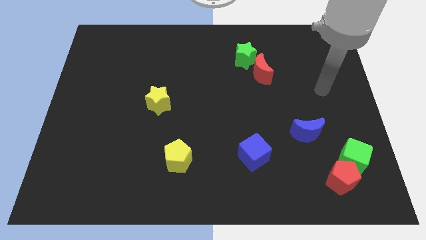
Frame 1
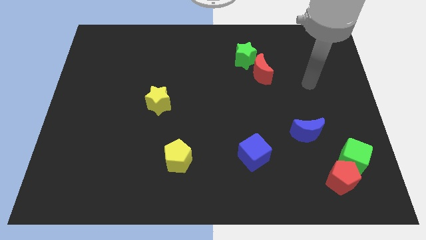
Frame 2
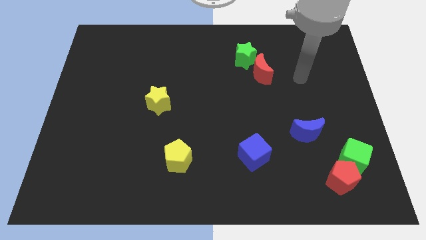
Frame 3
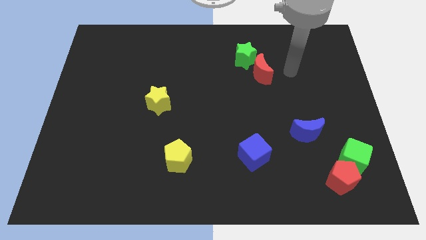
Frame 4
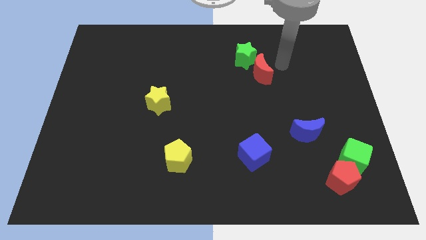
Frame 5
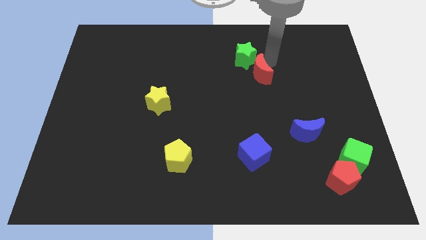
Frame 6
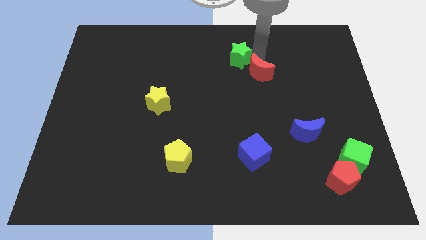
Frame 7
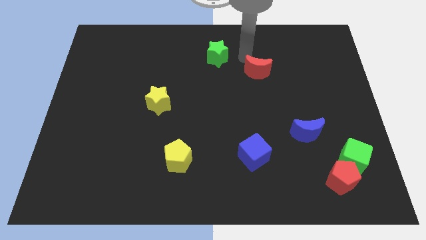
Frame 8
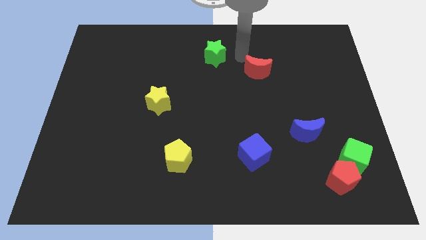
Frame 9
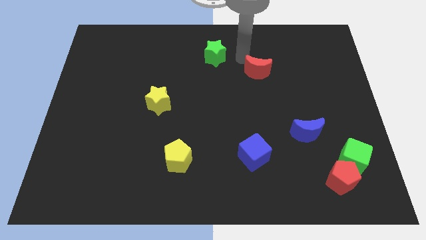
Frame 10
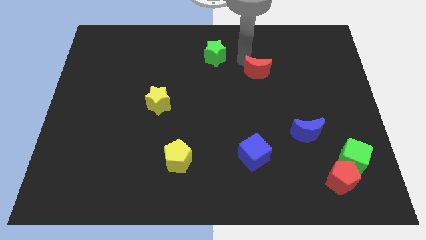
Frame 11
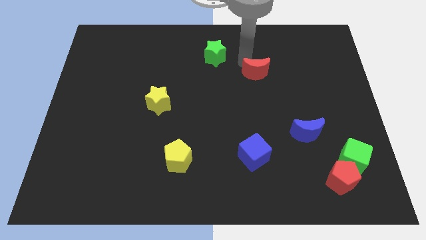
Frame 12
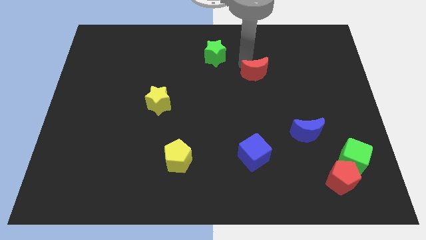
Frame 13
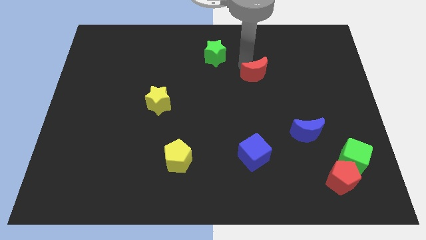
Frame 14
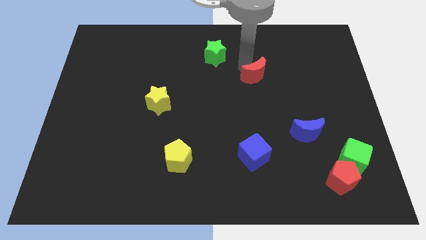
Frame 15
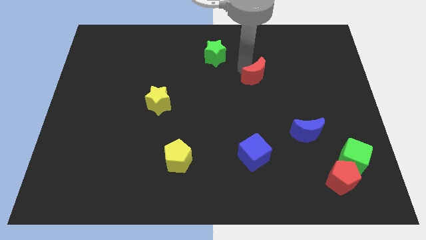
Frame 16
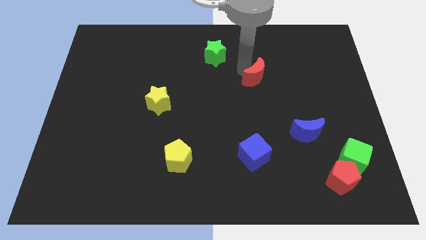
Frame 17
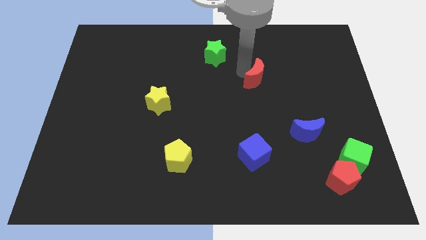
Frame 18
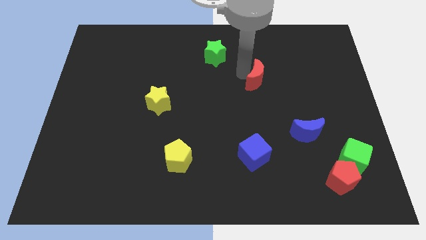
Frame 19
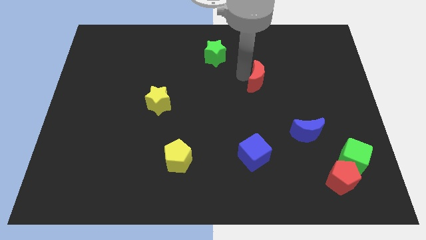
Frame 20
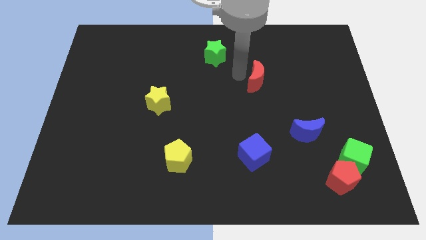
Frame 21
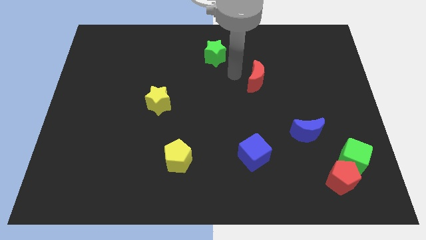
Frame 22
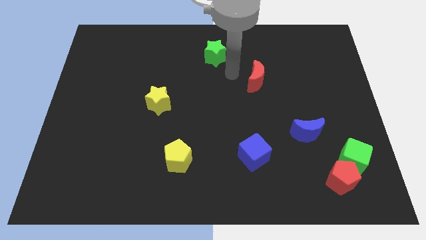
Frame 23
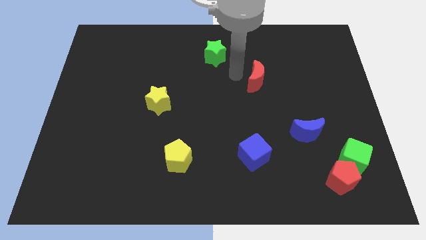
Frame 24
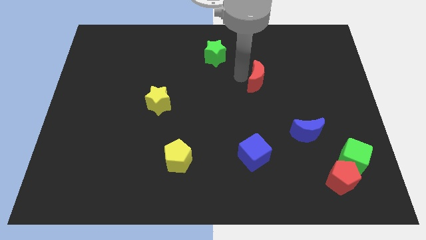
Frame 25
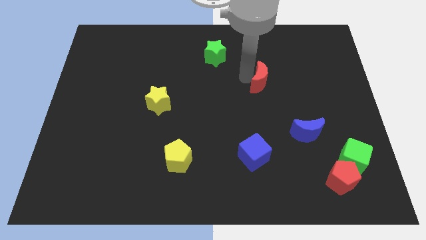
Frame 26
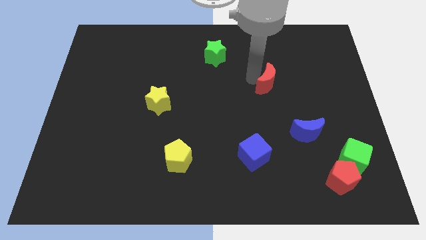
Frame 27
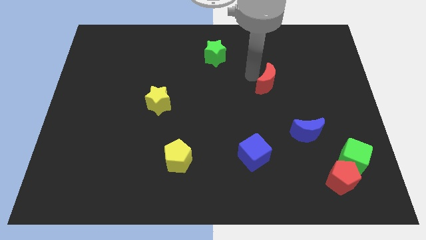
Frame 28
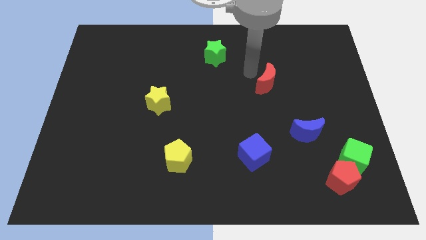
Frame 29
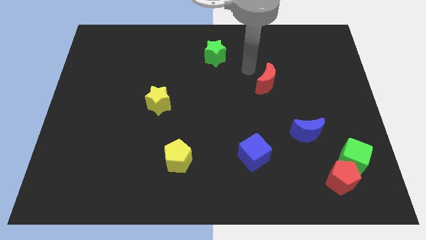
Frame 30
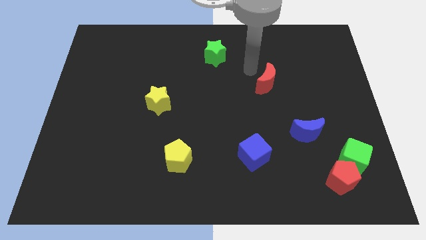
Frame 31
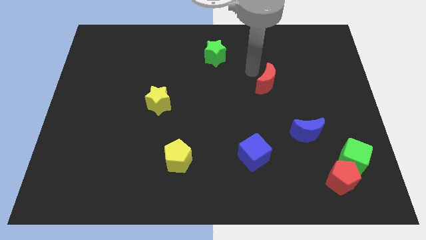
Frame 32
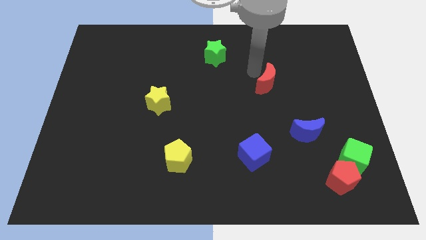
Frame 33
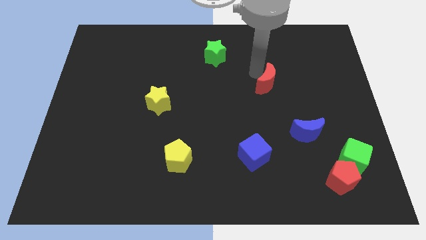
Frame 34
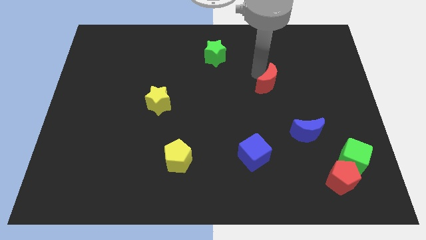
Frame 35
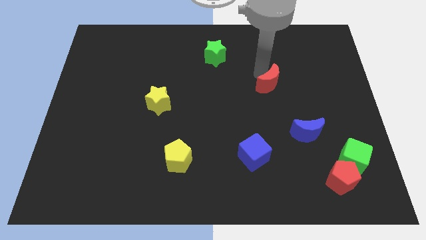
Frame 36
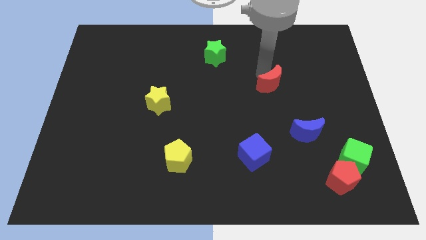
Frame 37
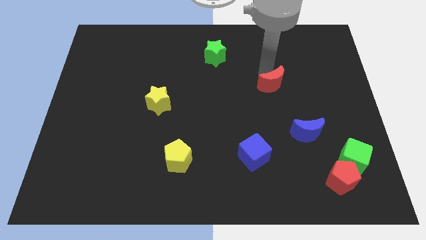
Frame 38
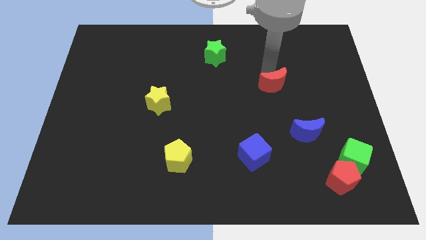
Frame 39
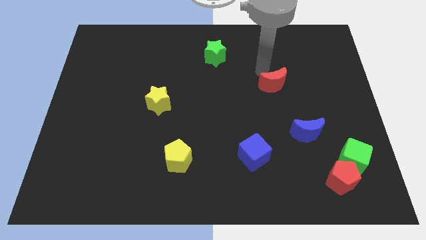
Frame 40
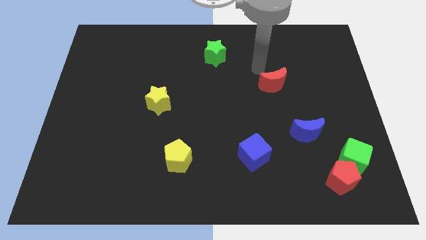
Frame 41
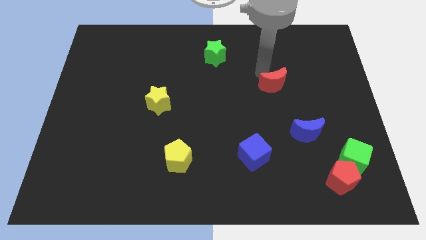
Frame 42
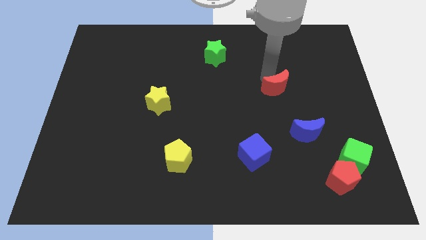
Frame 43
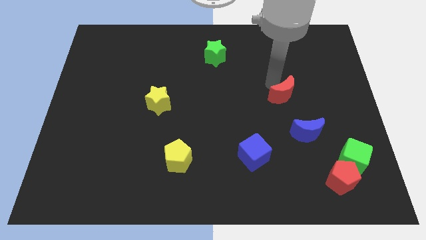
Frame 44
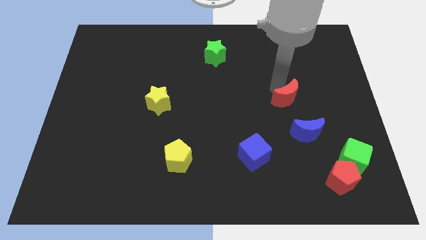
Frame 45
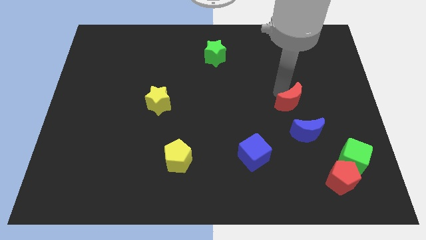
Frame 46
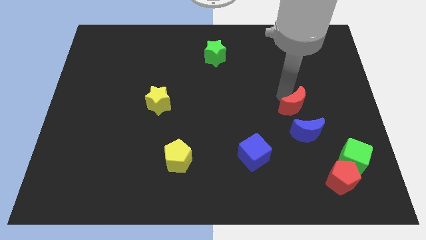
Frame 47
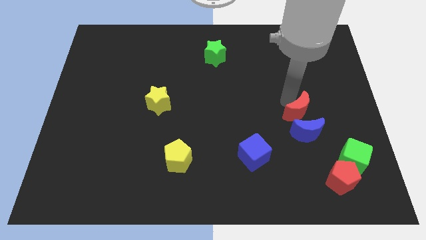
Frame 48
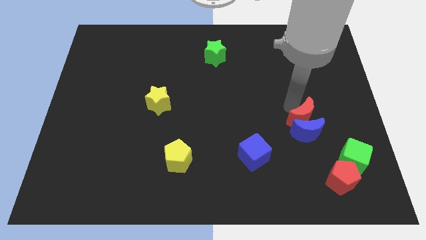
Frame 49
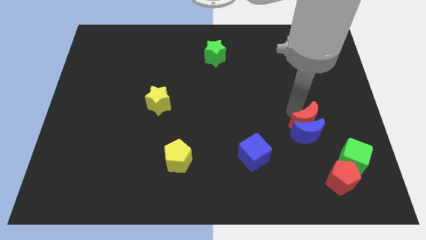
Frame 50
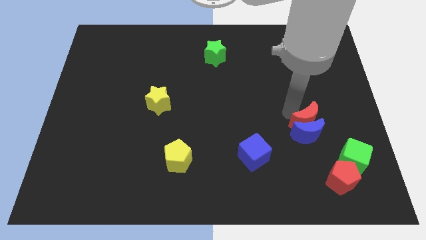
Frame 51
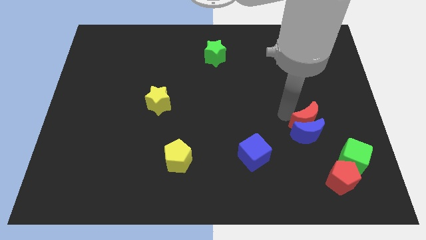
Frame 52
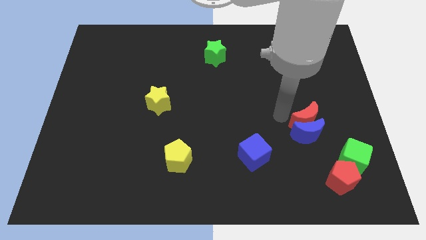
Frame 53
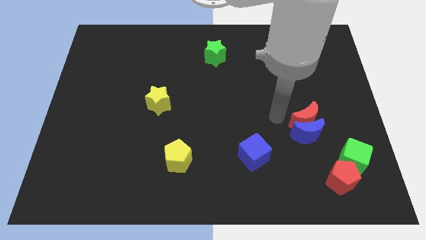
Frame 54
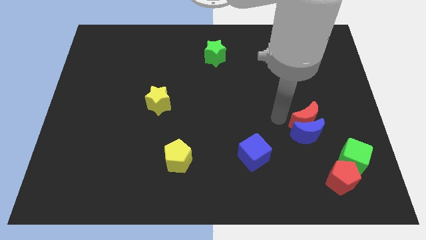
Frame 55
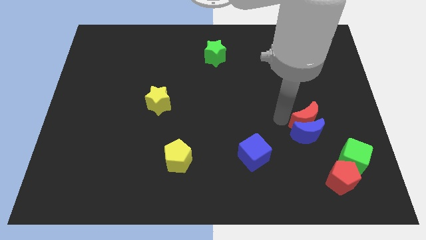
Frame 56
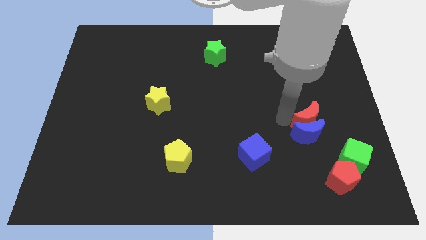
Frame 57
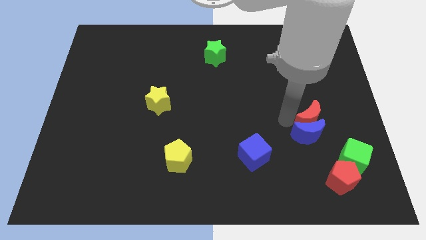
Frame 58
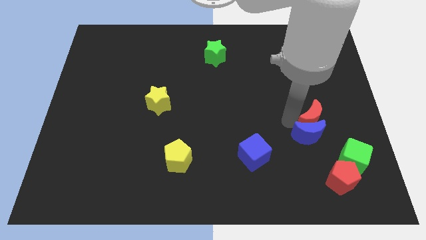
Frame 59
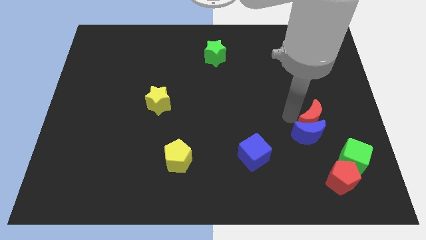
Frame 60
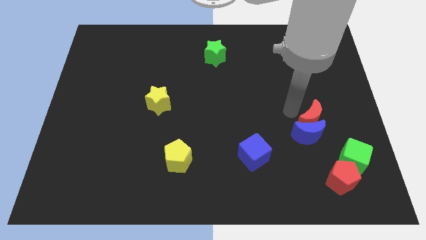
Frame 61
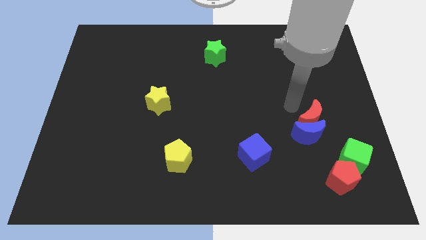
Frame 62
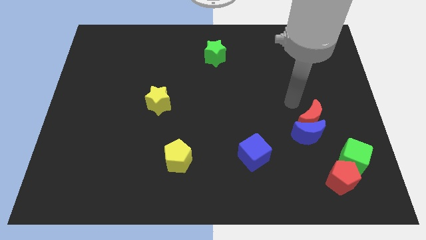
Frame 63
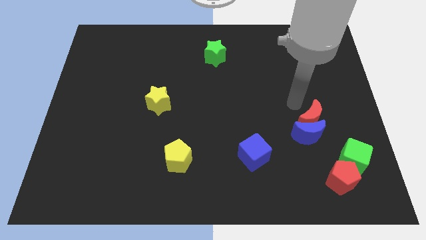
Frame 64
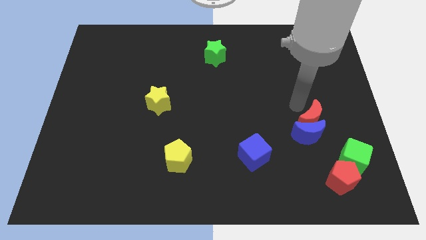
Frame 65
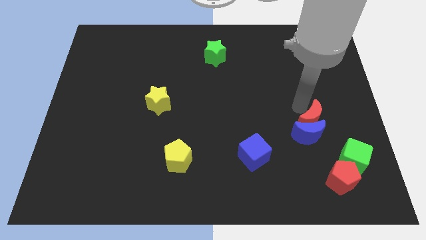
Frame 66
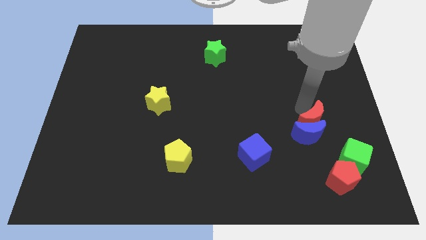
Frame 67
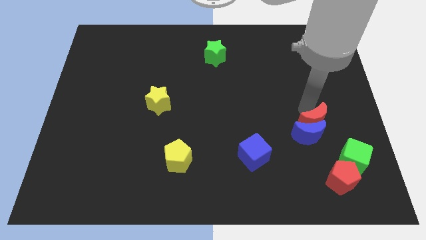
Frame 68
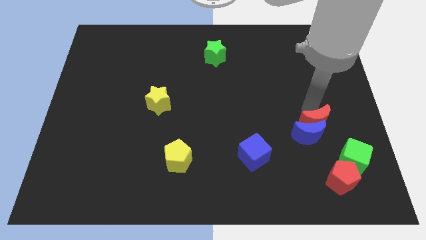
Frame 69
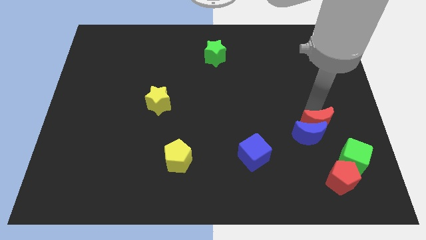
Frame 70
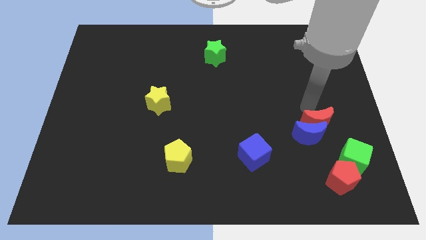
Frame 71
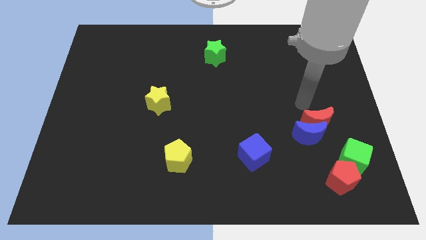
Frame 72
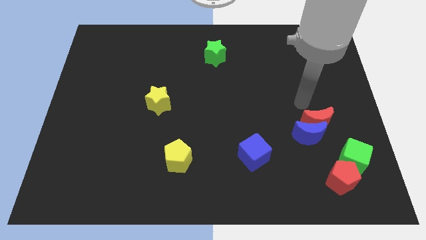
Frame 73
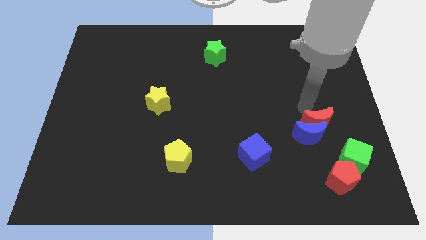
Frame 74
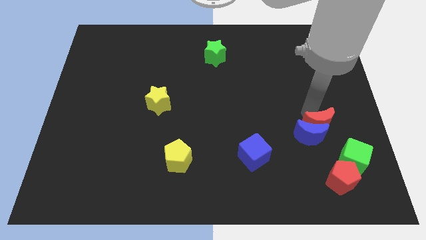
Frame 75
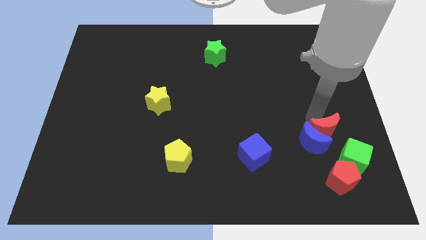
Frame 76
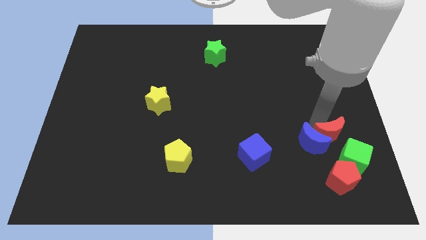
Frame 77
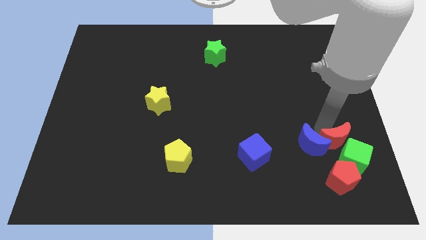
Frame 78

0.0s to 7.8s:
move the red moon close to the green cube
